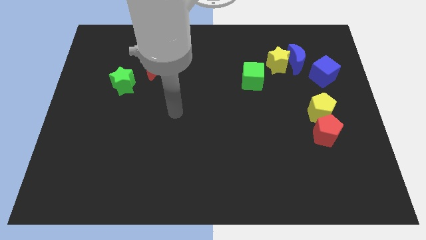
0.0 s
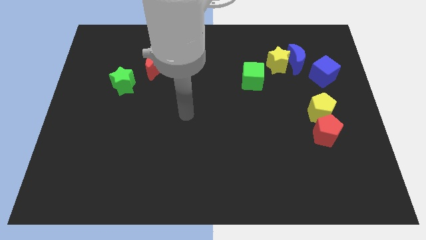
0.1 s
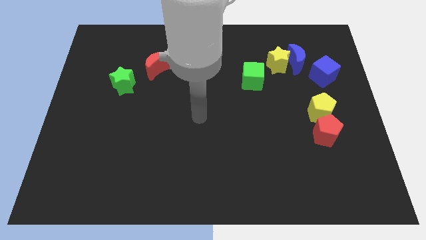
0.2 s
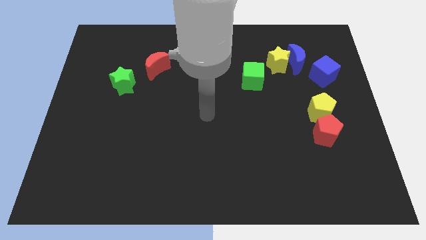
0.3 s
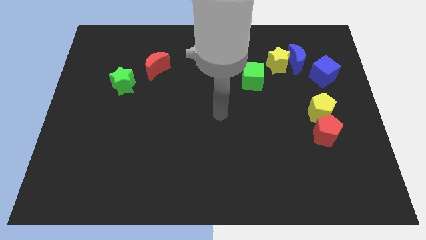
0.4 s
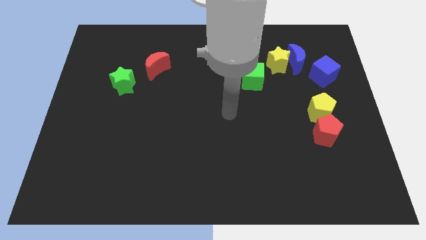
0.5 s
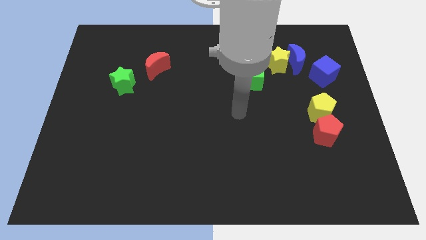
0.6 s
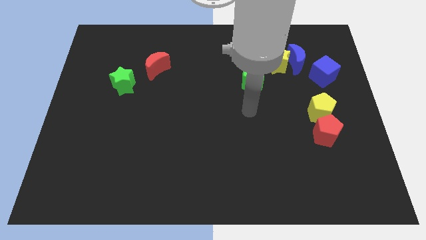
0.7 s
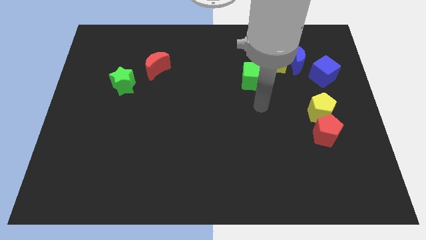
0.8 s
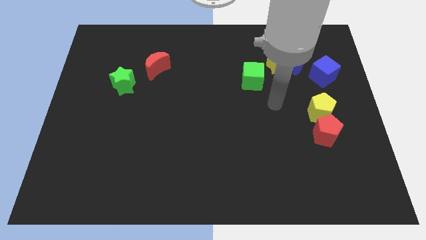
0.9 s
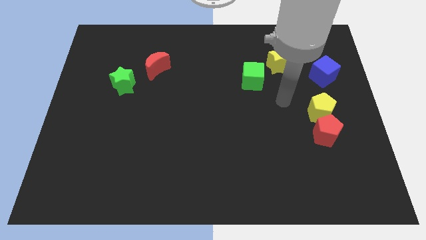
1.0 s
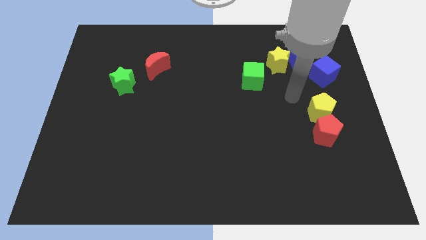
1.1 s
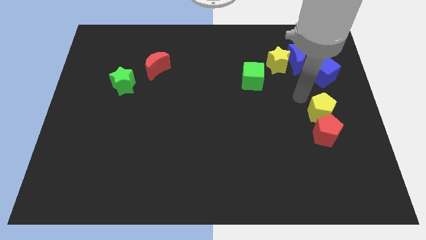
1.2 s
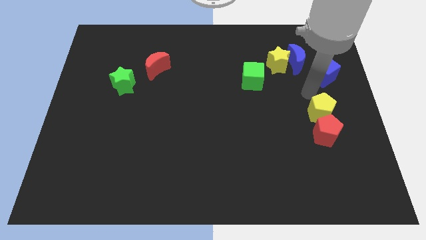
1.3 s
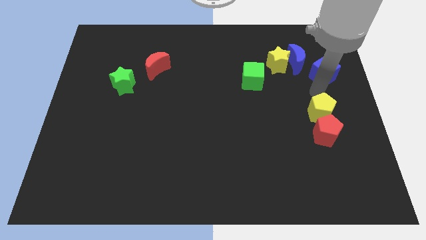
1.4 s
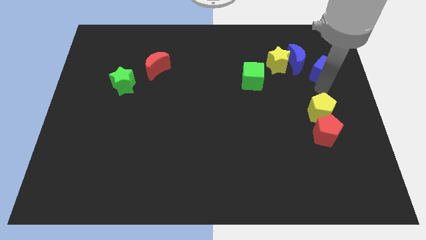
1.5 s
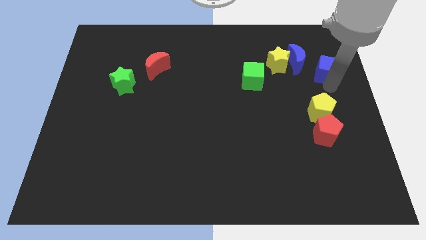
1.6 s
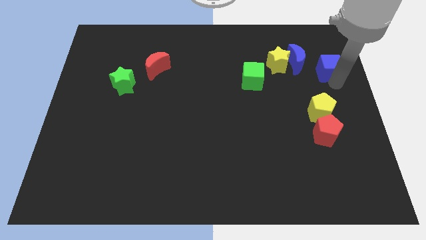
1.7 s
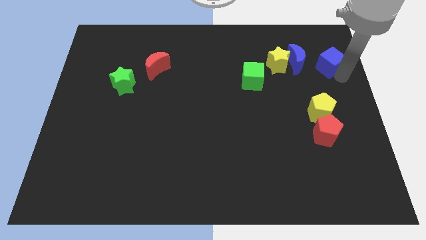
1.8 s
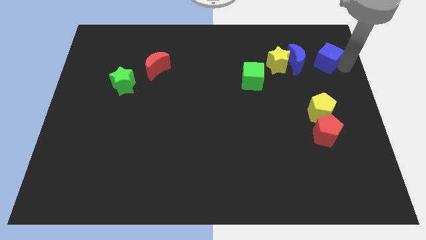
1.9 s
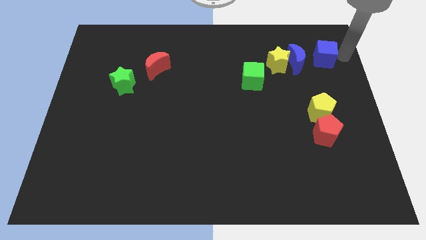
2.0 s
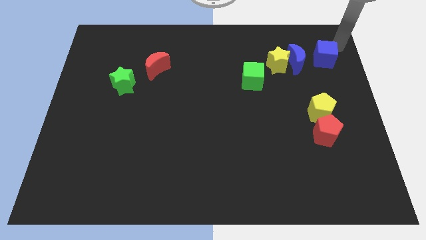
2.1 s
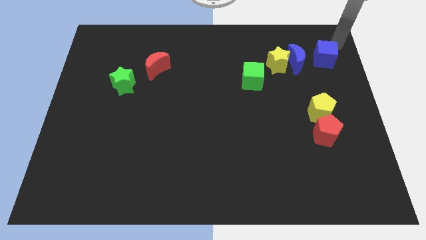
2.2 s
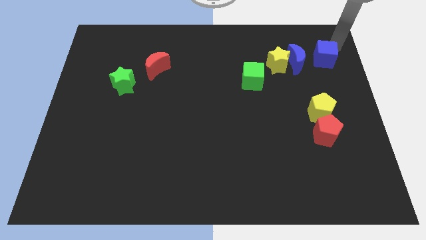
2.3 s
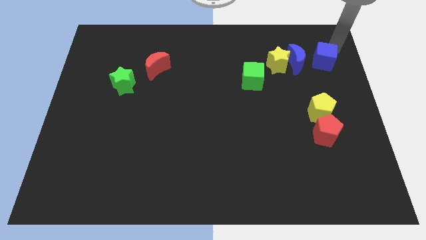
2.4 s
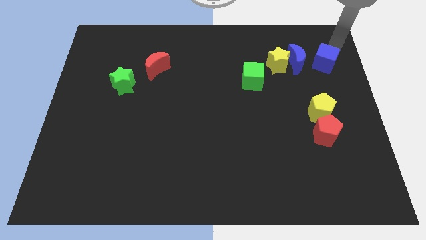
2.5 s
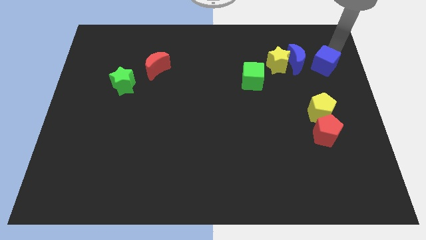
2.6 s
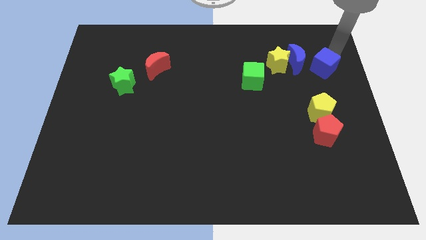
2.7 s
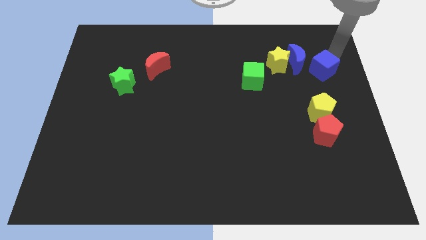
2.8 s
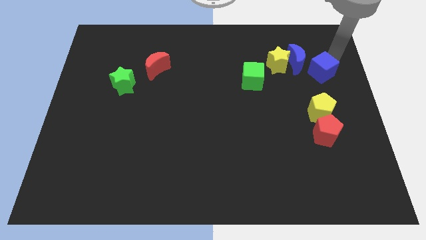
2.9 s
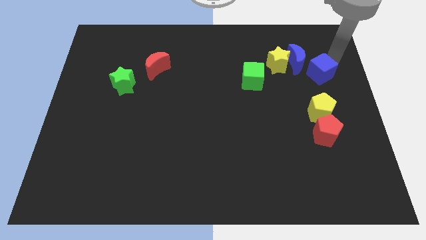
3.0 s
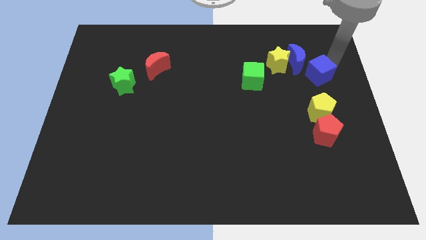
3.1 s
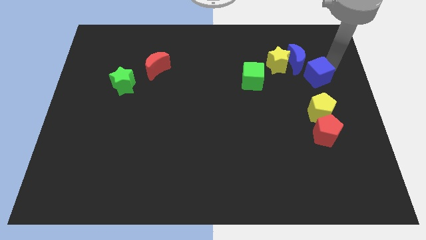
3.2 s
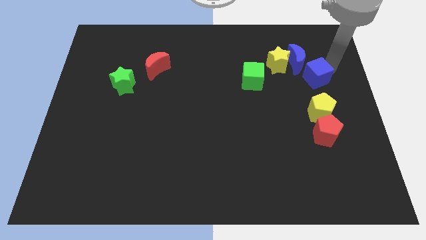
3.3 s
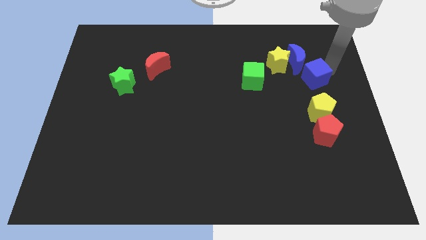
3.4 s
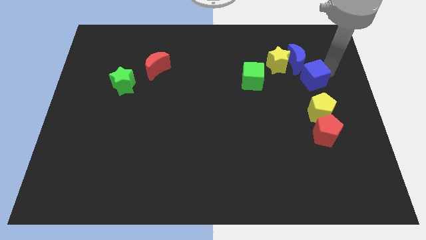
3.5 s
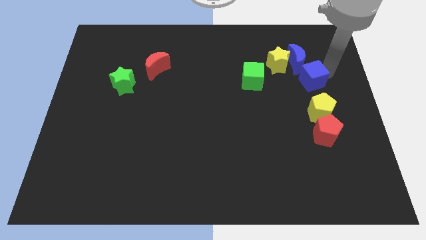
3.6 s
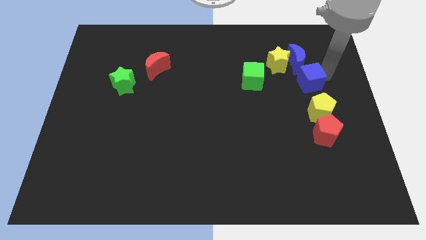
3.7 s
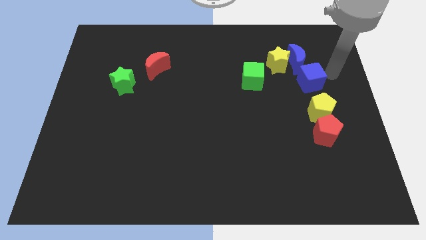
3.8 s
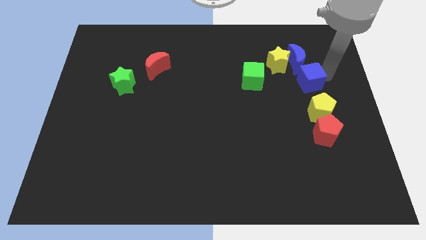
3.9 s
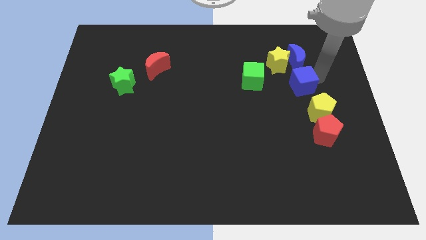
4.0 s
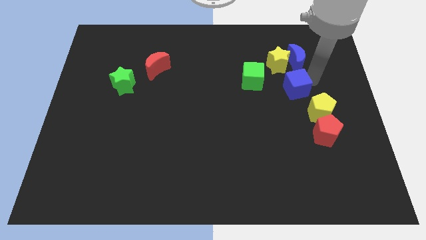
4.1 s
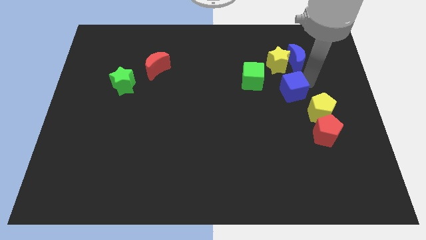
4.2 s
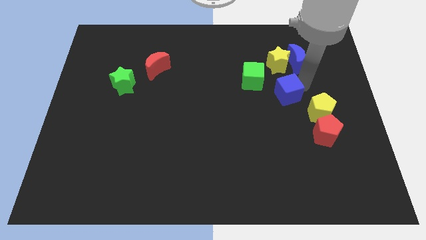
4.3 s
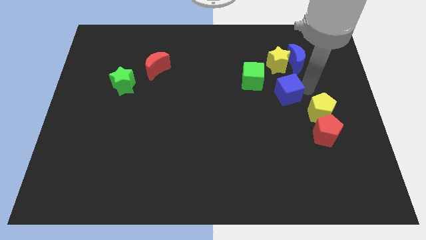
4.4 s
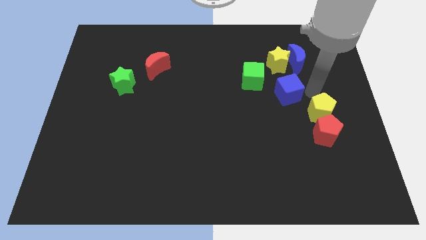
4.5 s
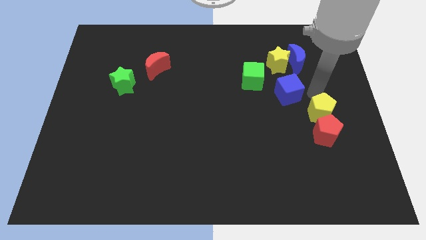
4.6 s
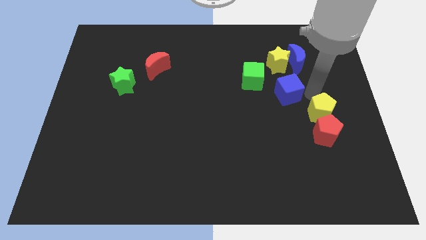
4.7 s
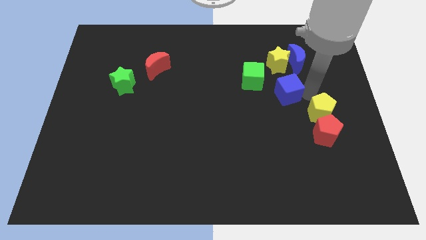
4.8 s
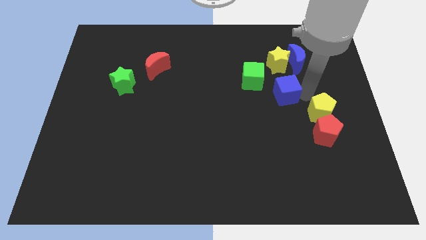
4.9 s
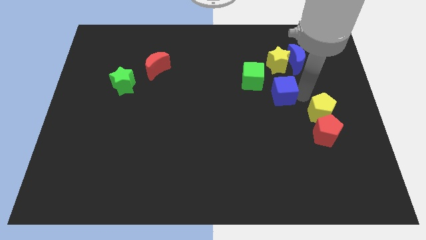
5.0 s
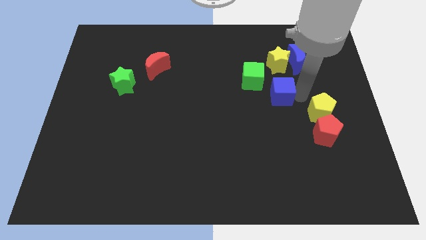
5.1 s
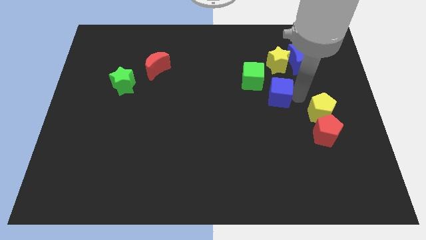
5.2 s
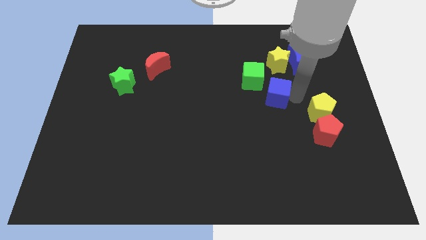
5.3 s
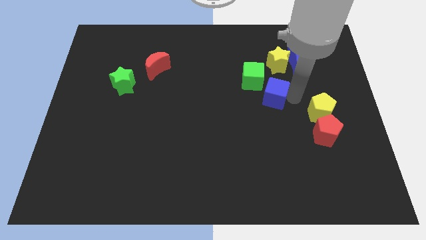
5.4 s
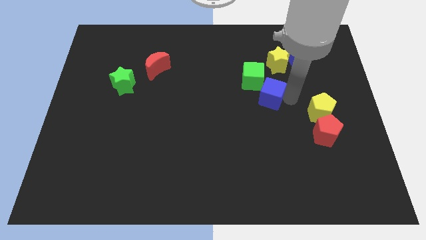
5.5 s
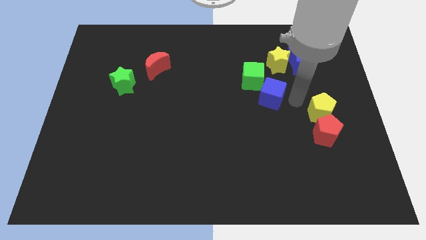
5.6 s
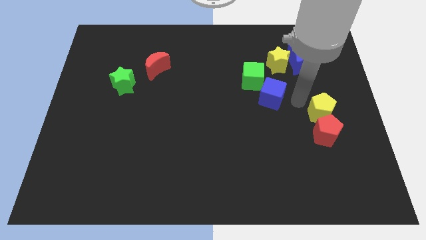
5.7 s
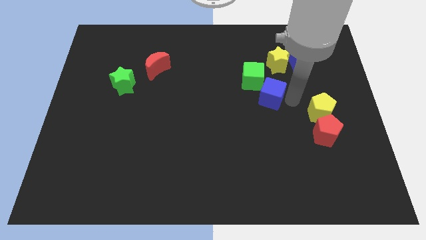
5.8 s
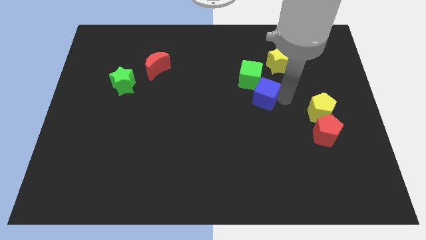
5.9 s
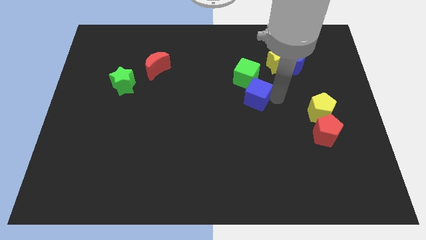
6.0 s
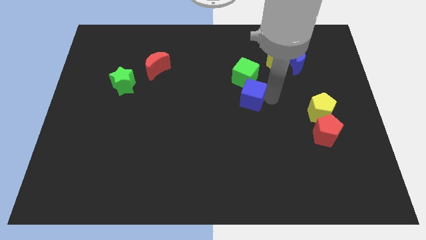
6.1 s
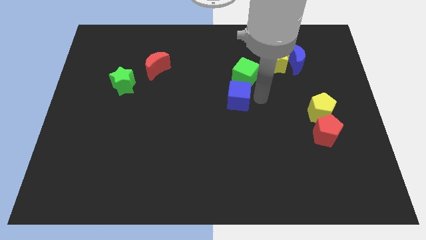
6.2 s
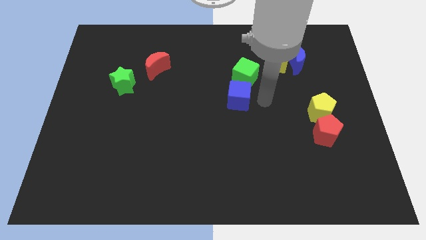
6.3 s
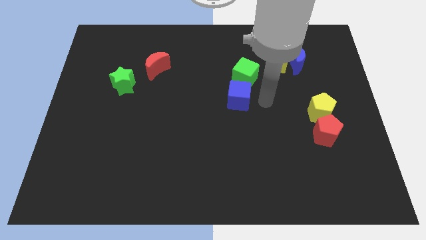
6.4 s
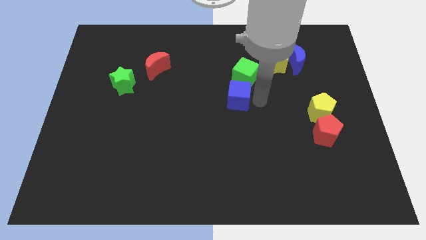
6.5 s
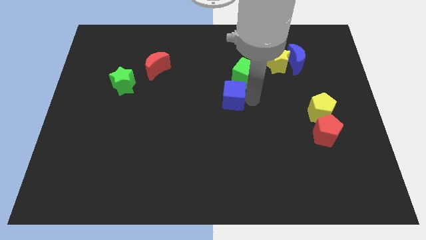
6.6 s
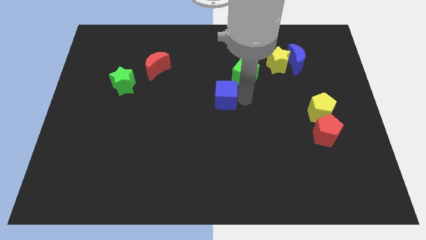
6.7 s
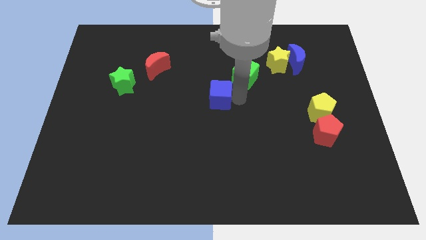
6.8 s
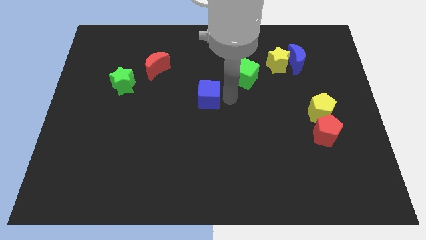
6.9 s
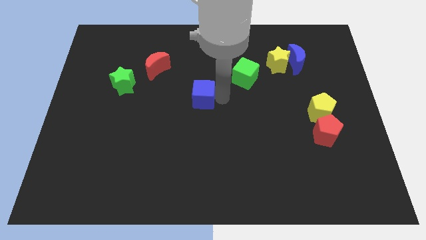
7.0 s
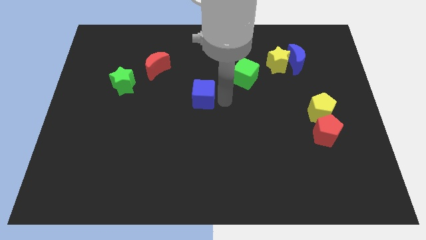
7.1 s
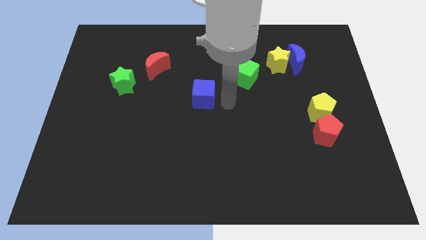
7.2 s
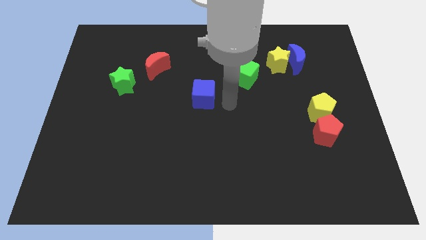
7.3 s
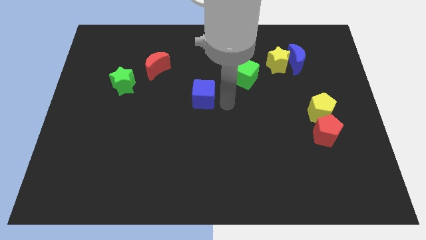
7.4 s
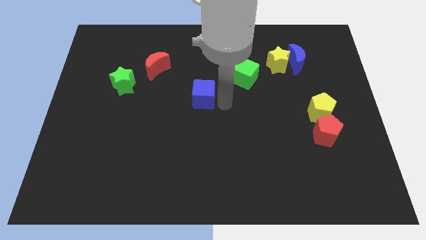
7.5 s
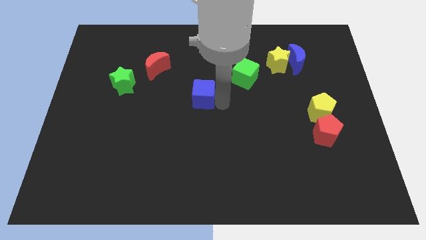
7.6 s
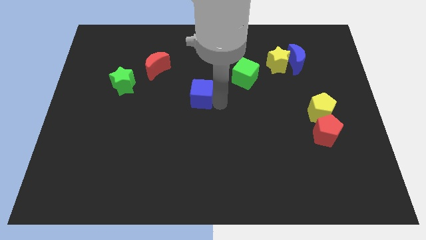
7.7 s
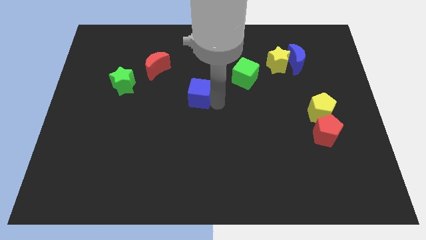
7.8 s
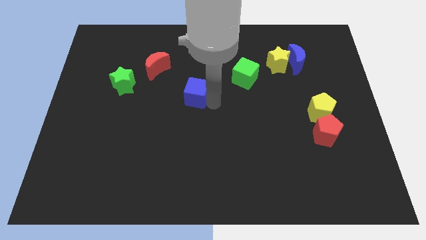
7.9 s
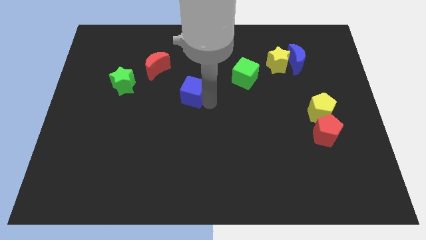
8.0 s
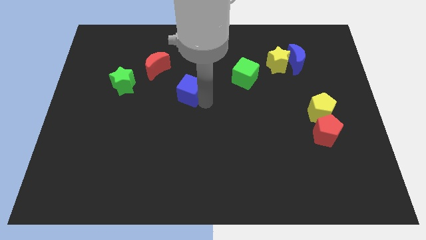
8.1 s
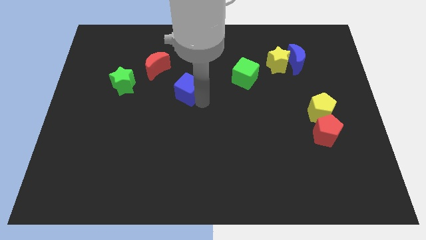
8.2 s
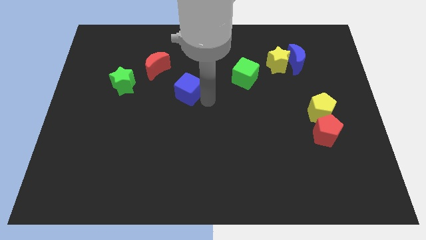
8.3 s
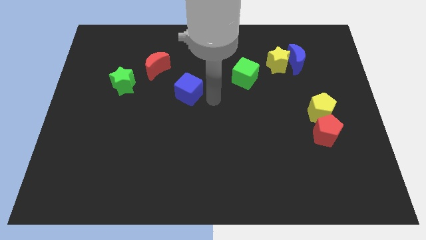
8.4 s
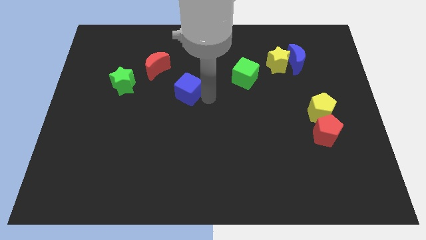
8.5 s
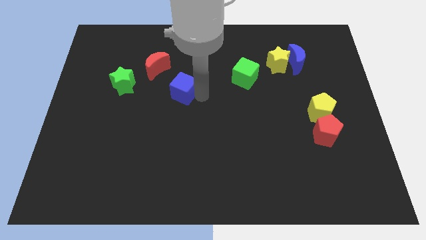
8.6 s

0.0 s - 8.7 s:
slide the blue cube to the right side of the green star
